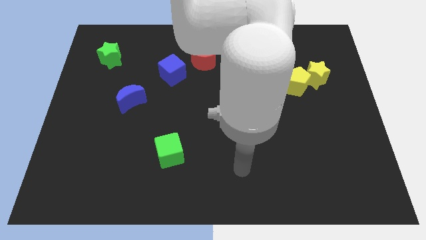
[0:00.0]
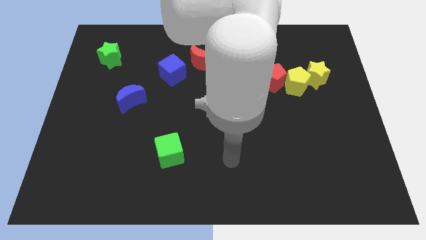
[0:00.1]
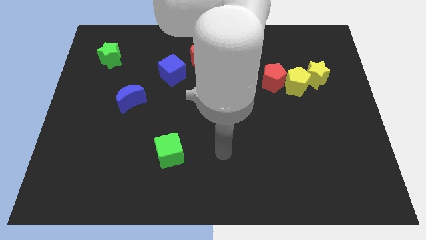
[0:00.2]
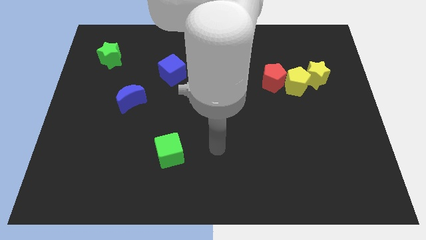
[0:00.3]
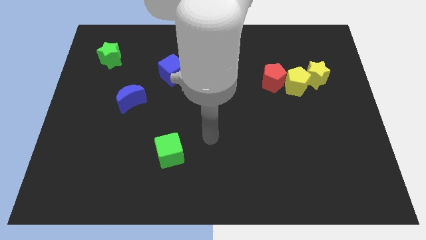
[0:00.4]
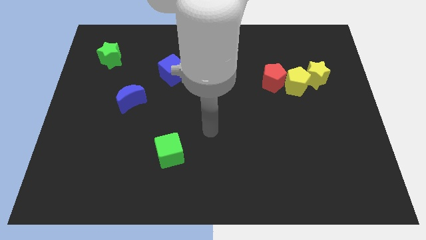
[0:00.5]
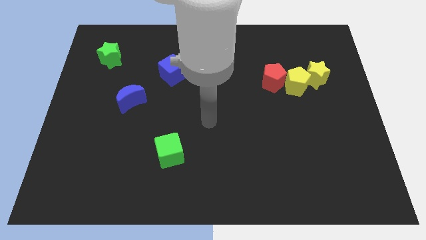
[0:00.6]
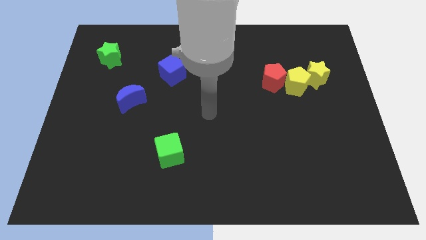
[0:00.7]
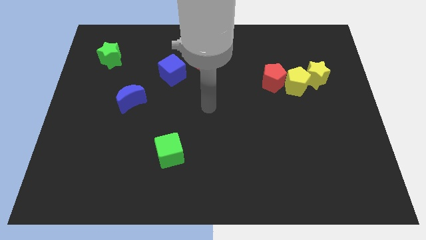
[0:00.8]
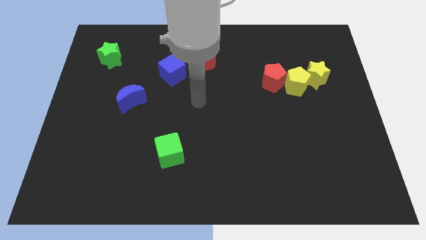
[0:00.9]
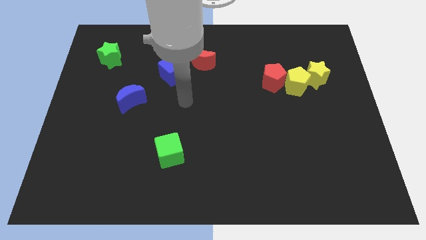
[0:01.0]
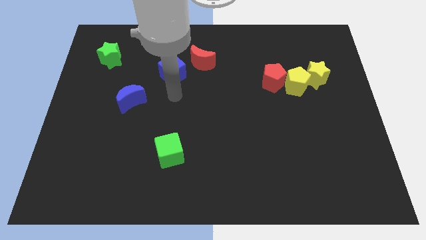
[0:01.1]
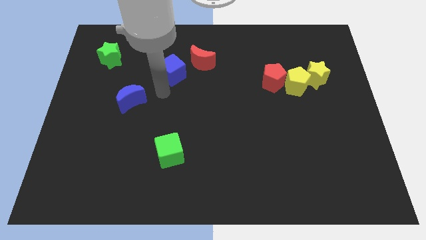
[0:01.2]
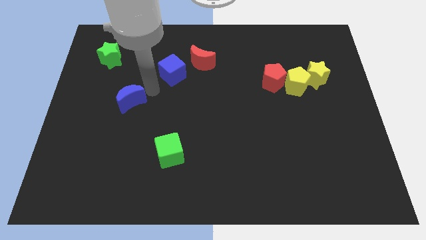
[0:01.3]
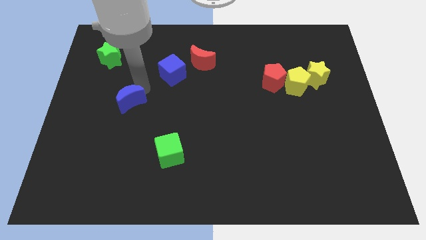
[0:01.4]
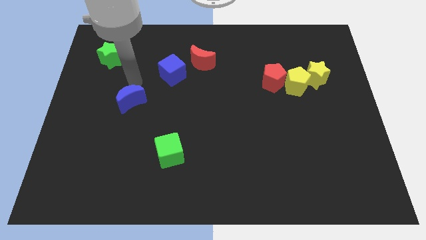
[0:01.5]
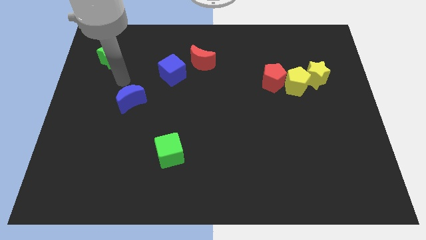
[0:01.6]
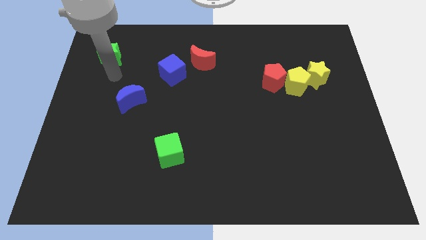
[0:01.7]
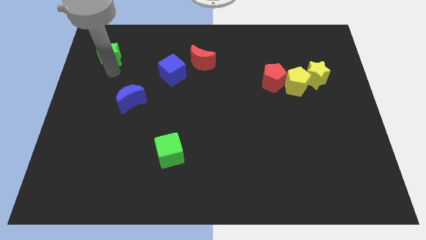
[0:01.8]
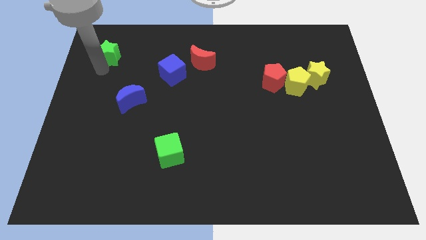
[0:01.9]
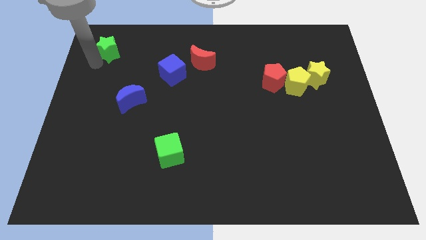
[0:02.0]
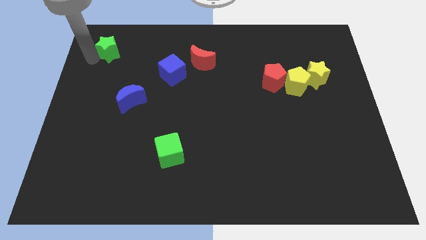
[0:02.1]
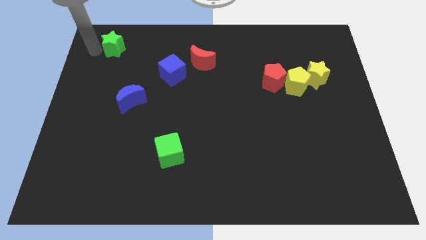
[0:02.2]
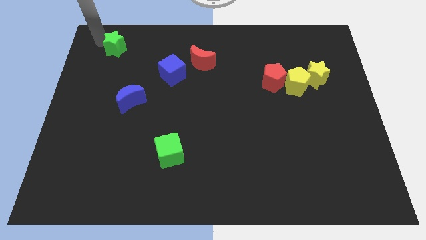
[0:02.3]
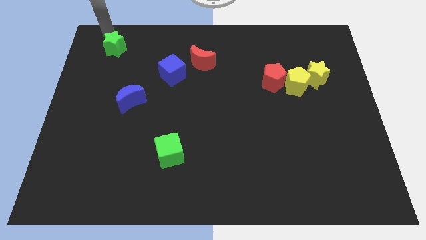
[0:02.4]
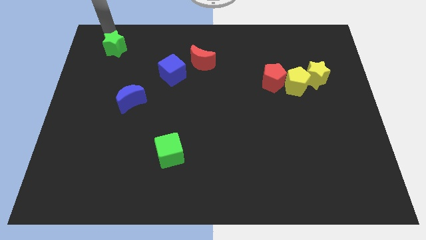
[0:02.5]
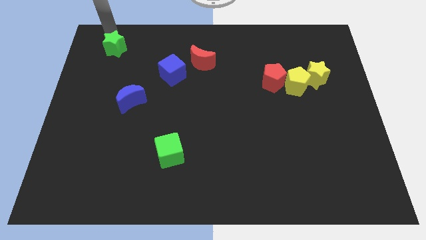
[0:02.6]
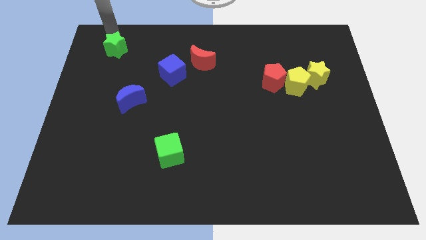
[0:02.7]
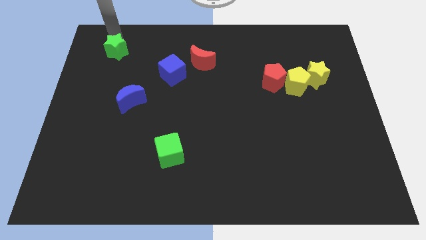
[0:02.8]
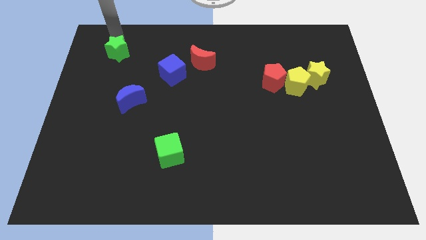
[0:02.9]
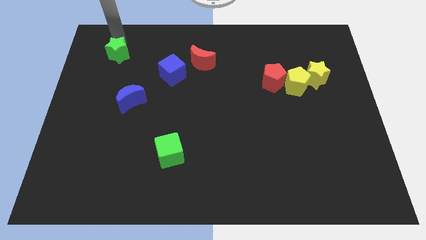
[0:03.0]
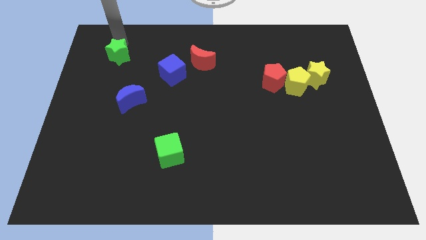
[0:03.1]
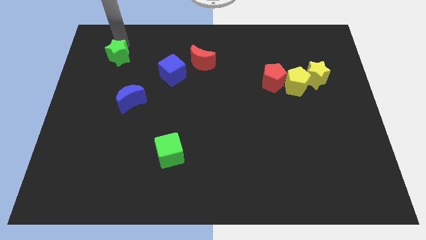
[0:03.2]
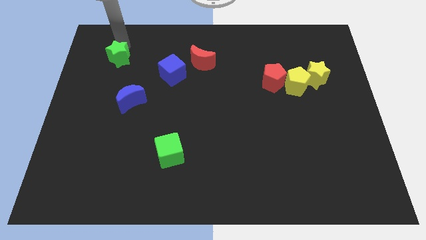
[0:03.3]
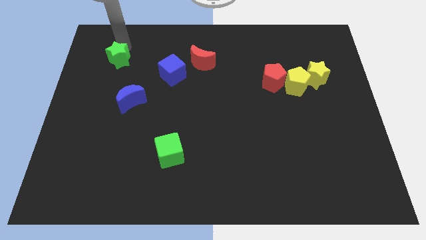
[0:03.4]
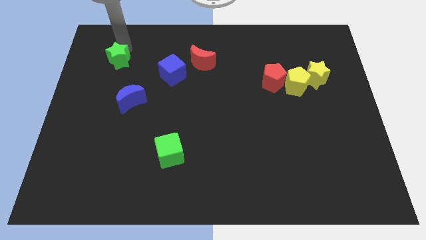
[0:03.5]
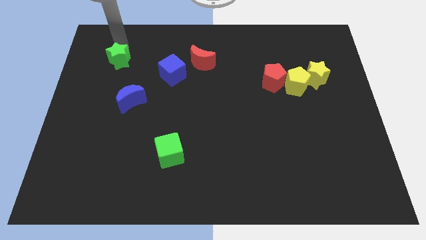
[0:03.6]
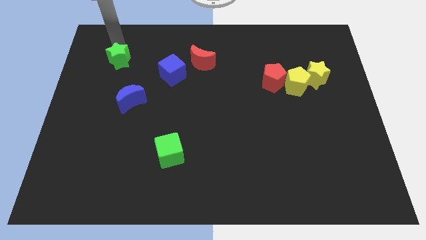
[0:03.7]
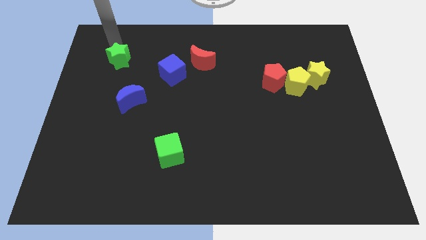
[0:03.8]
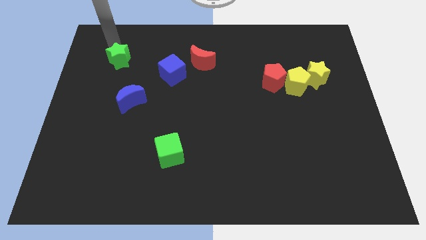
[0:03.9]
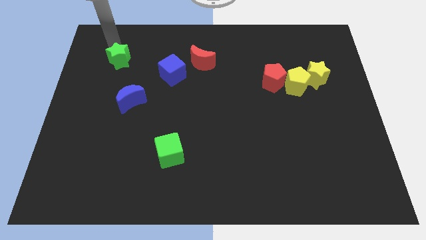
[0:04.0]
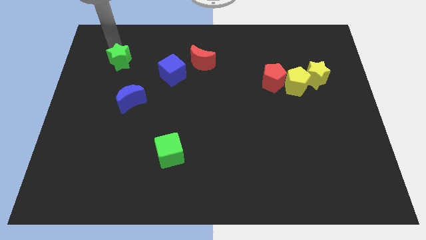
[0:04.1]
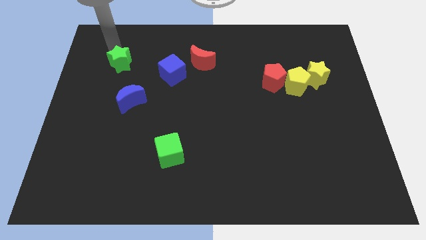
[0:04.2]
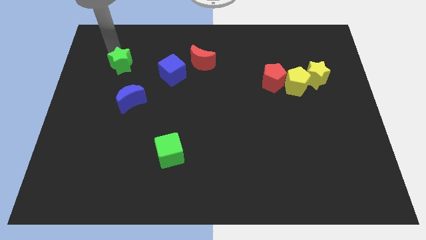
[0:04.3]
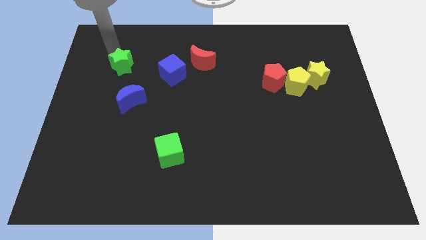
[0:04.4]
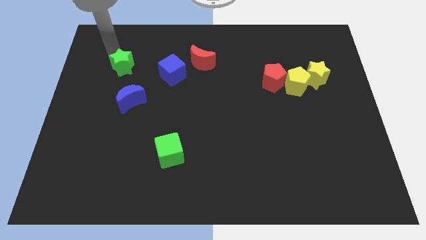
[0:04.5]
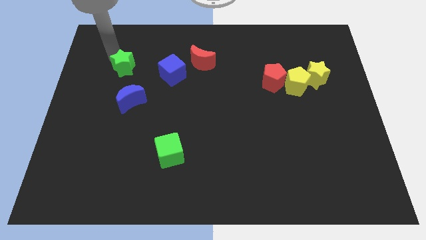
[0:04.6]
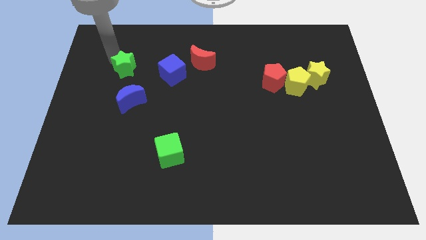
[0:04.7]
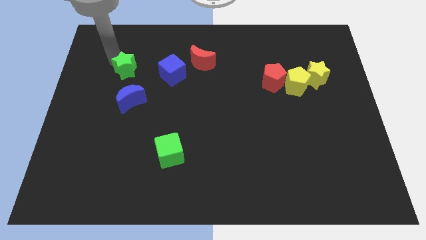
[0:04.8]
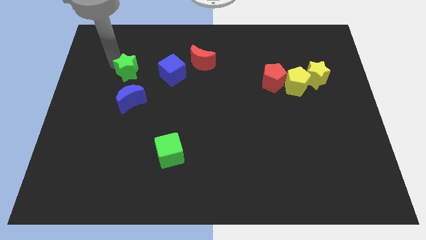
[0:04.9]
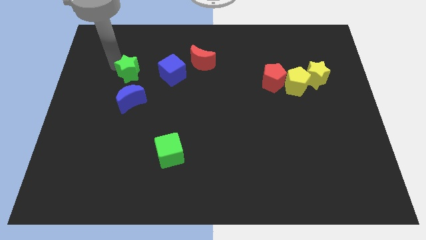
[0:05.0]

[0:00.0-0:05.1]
push the green star down and to the right a little

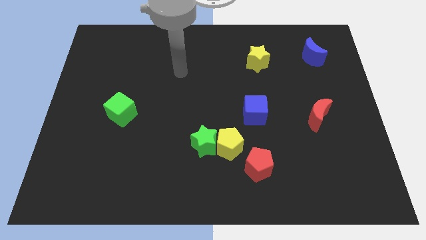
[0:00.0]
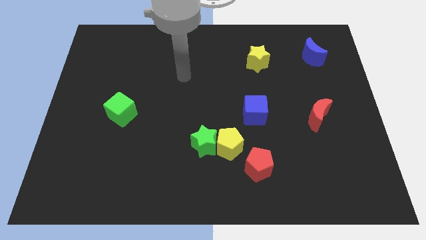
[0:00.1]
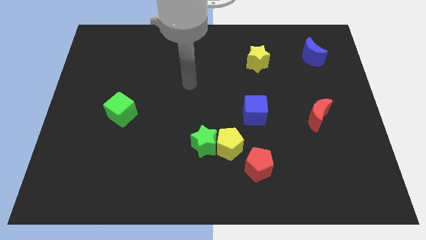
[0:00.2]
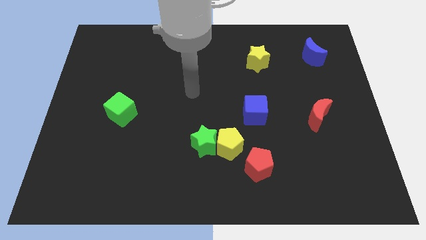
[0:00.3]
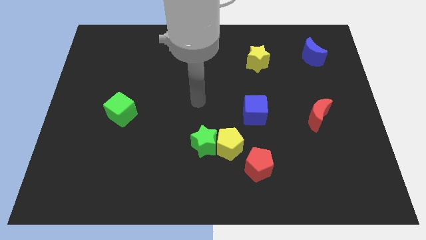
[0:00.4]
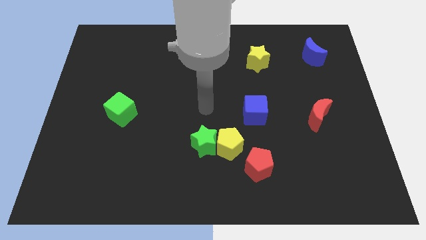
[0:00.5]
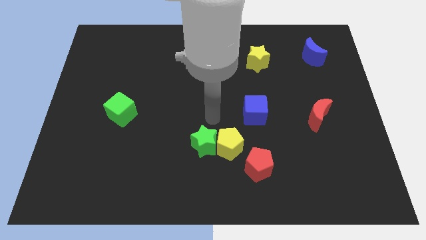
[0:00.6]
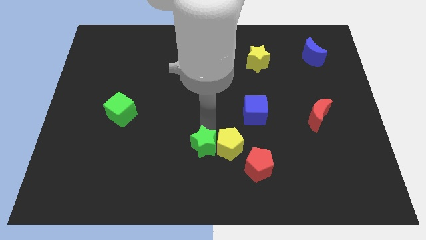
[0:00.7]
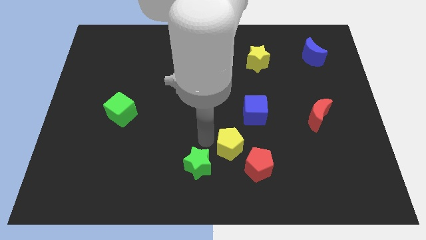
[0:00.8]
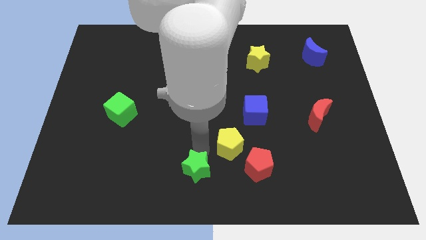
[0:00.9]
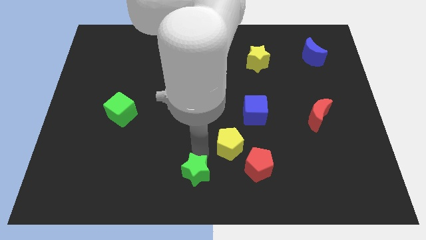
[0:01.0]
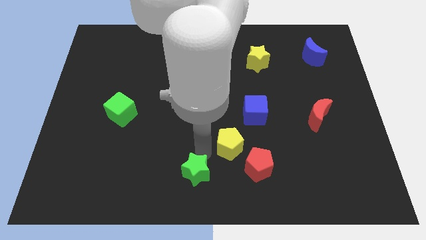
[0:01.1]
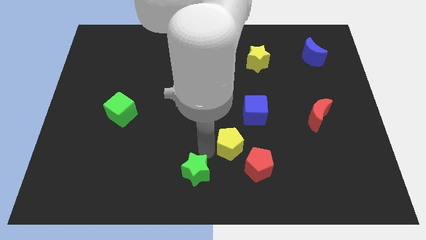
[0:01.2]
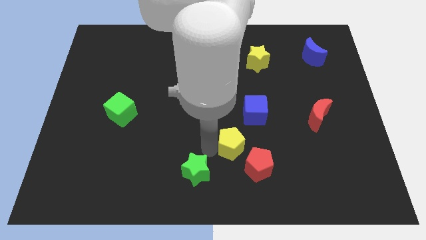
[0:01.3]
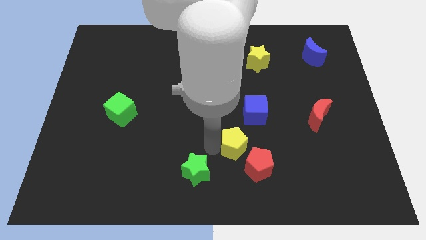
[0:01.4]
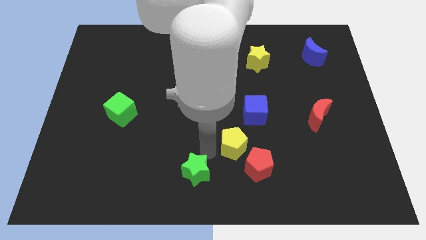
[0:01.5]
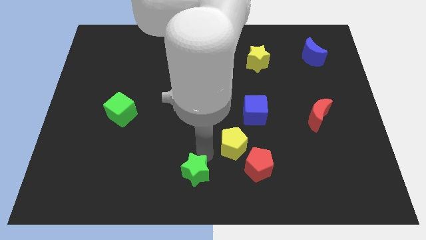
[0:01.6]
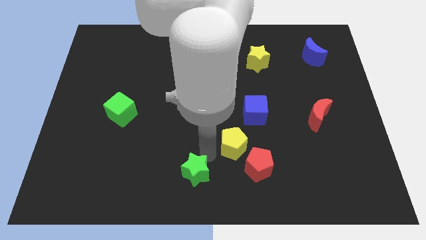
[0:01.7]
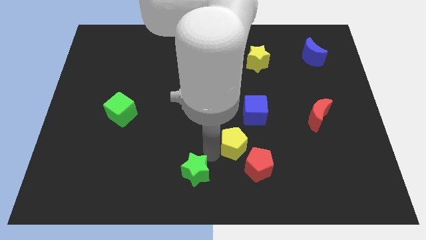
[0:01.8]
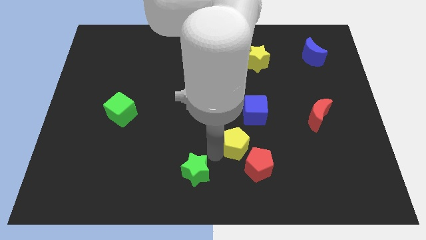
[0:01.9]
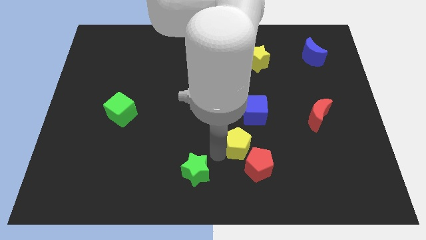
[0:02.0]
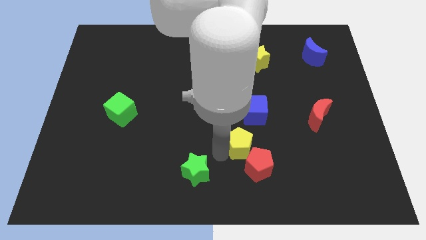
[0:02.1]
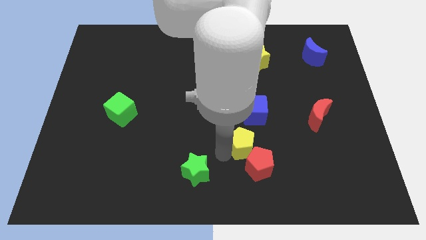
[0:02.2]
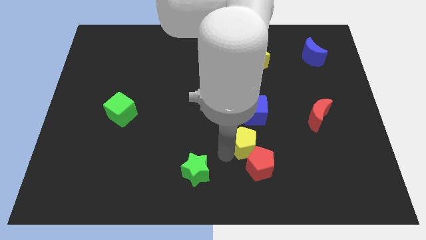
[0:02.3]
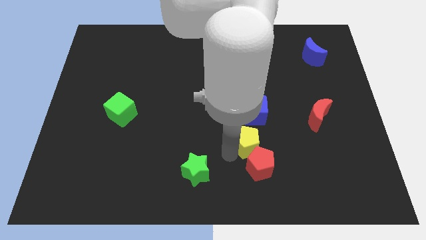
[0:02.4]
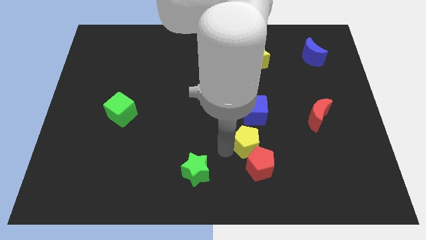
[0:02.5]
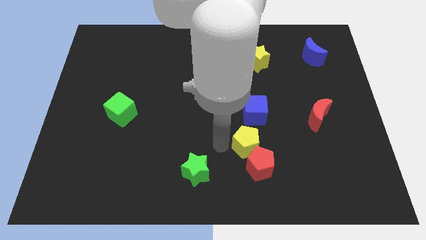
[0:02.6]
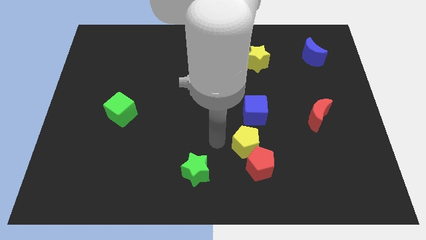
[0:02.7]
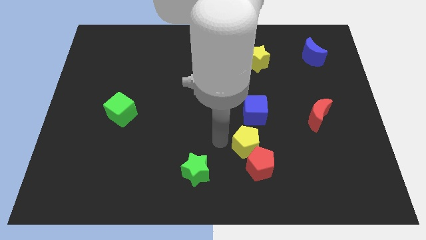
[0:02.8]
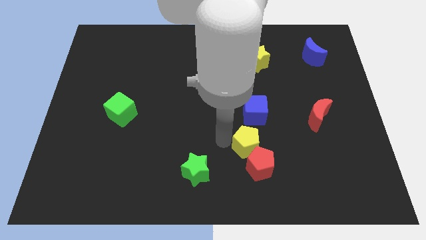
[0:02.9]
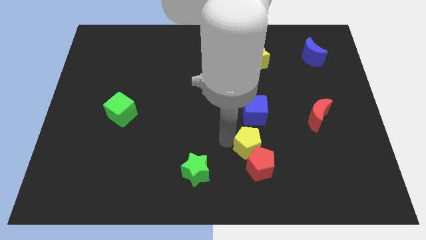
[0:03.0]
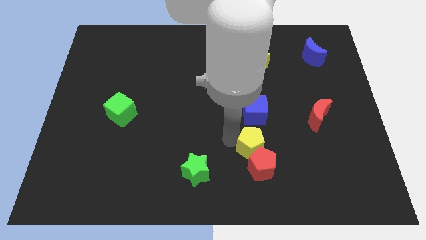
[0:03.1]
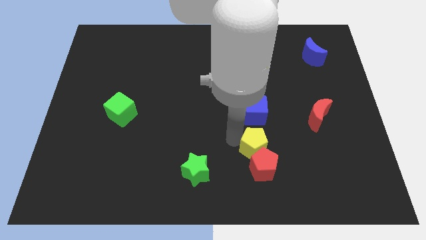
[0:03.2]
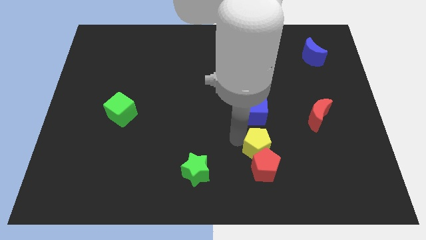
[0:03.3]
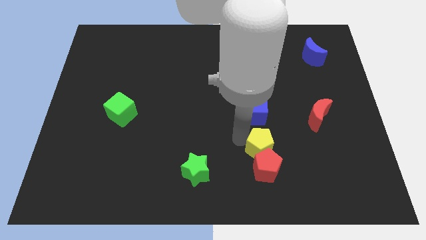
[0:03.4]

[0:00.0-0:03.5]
slide the yellow pentagon a bit right
